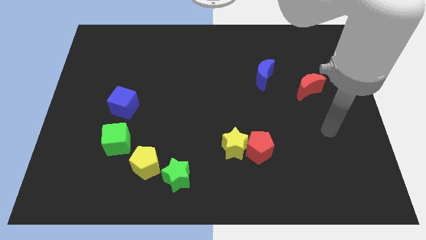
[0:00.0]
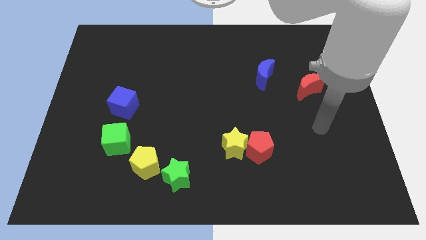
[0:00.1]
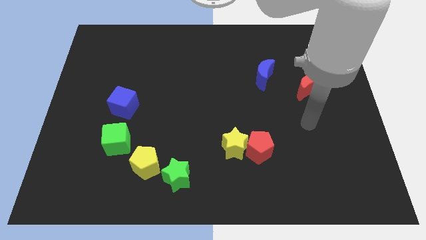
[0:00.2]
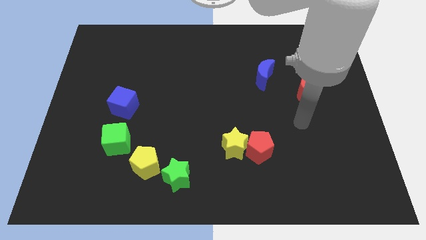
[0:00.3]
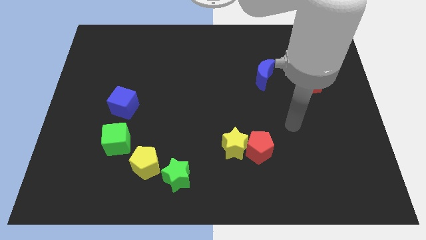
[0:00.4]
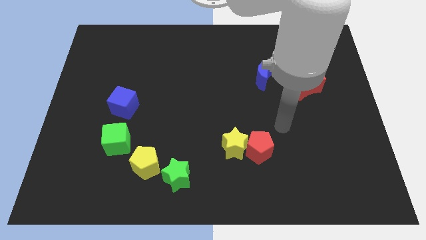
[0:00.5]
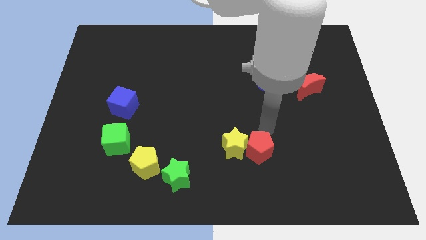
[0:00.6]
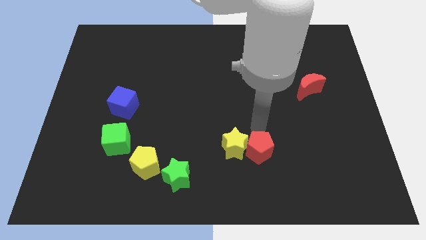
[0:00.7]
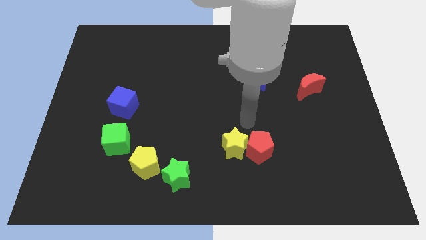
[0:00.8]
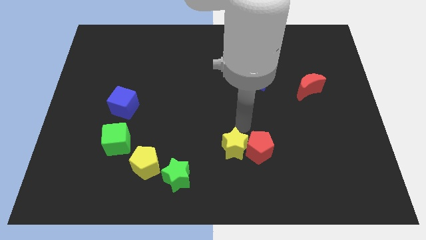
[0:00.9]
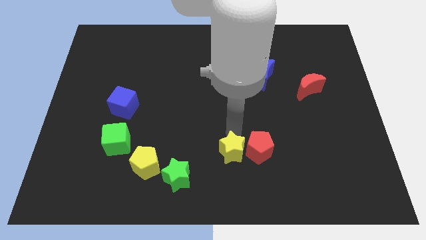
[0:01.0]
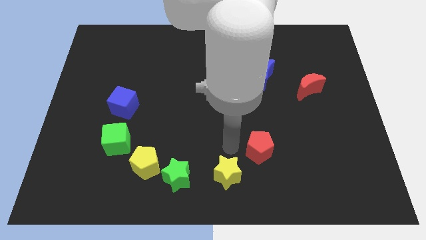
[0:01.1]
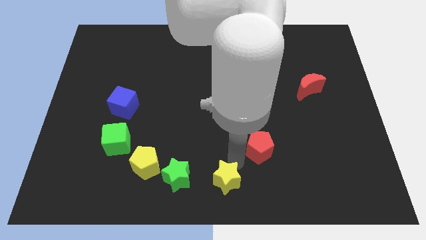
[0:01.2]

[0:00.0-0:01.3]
move the red pentagon away from the yellow star

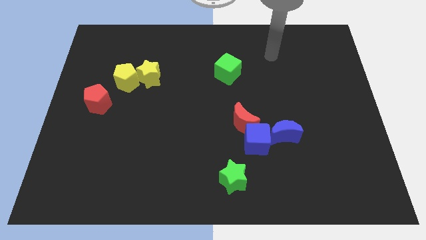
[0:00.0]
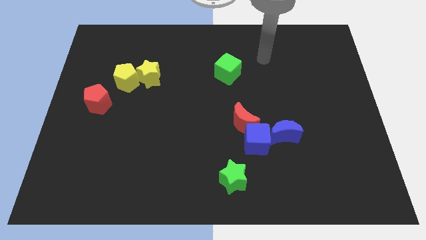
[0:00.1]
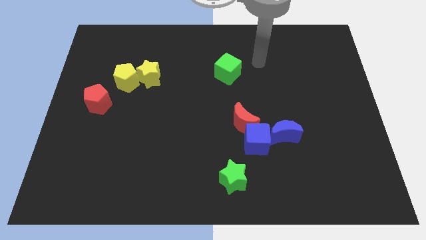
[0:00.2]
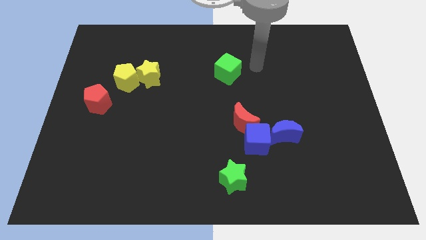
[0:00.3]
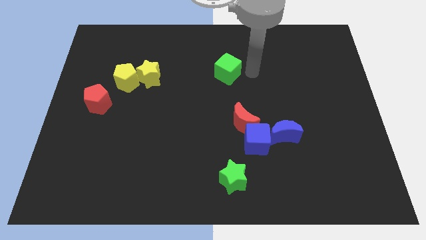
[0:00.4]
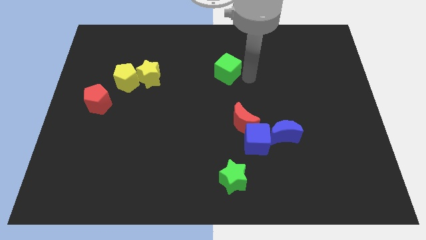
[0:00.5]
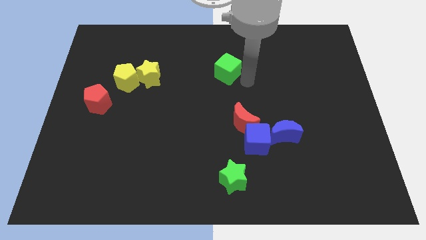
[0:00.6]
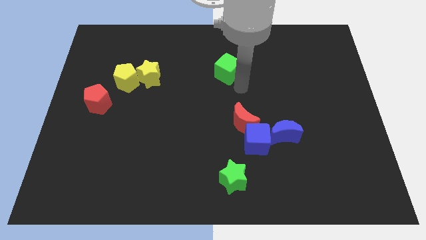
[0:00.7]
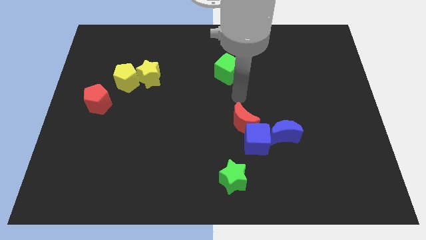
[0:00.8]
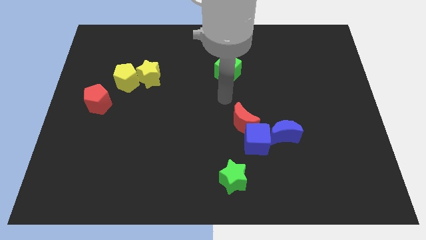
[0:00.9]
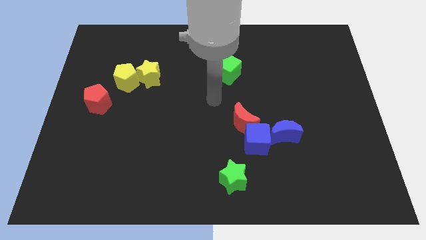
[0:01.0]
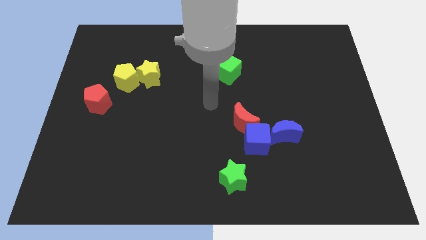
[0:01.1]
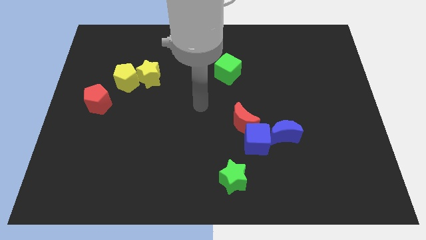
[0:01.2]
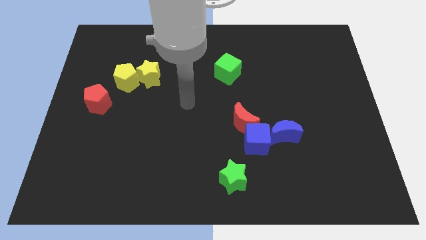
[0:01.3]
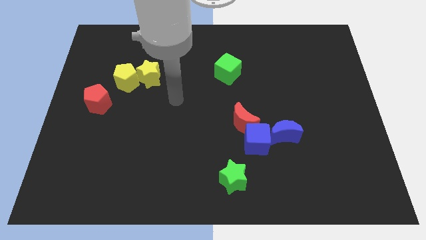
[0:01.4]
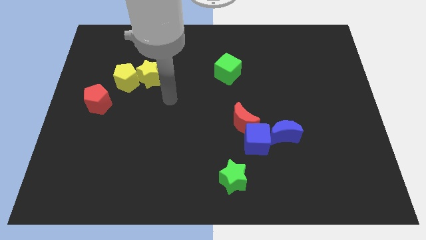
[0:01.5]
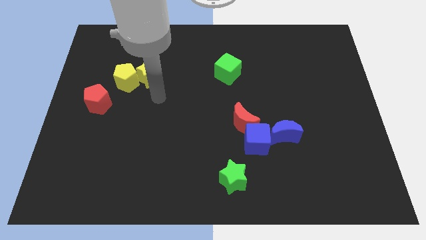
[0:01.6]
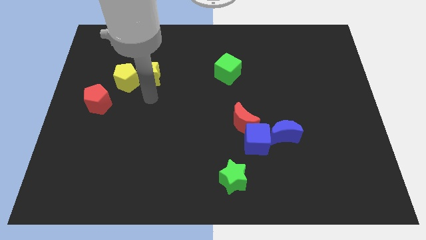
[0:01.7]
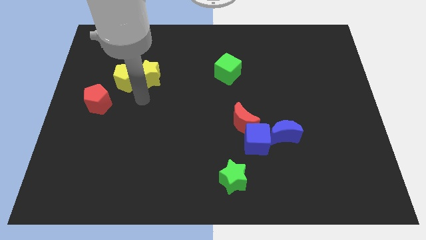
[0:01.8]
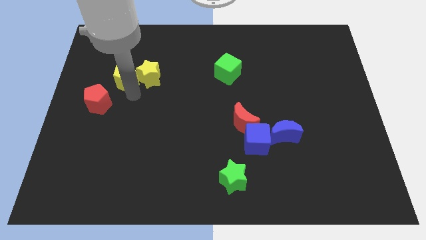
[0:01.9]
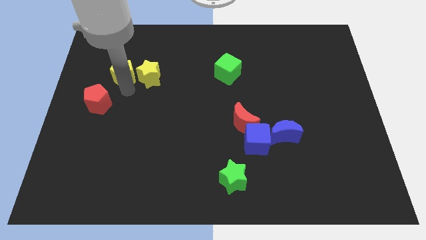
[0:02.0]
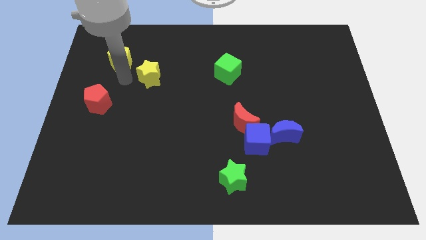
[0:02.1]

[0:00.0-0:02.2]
move the yellow star away from the yellow pentagon

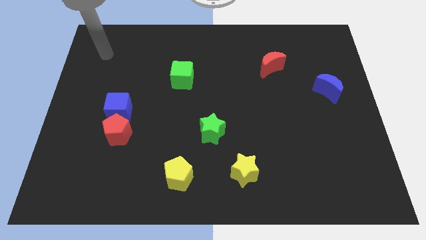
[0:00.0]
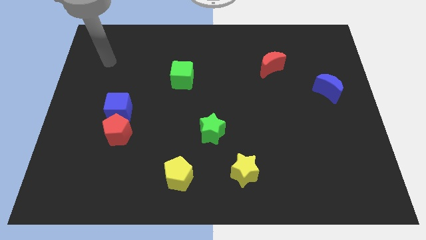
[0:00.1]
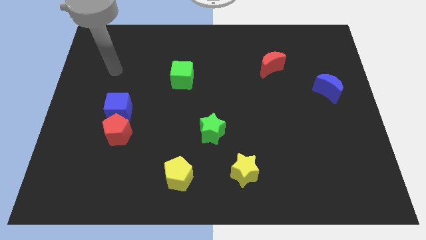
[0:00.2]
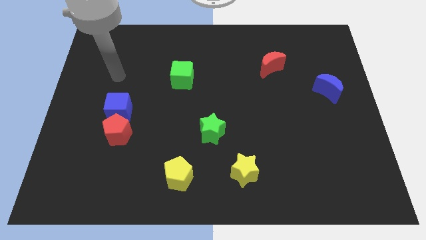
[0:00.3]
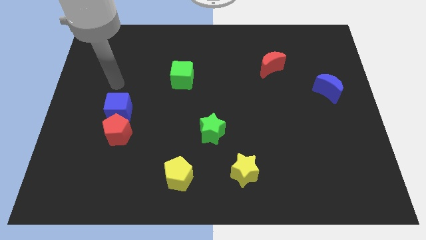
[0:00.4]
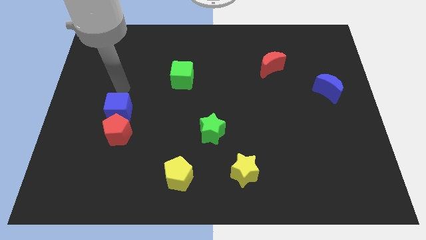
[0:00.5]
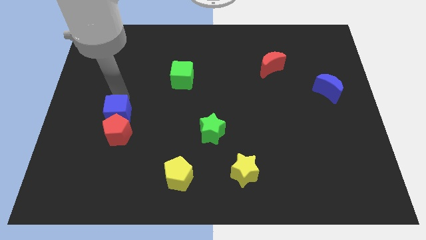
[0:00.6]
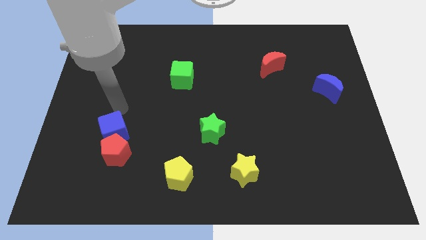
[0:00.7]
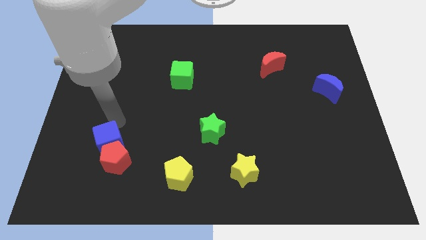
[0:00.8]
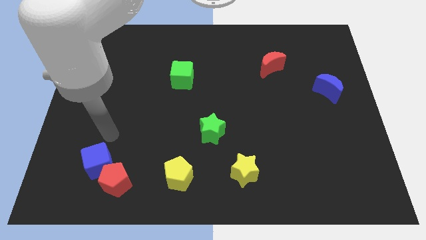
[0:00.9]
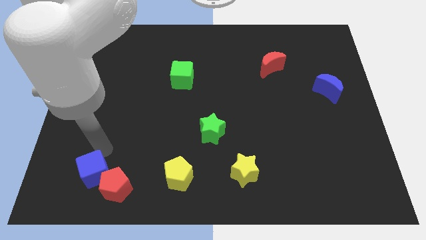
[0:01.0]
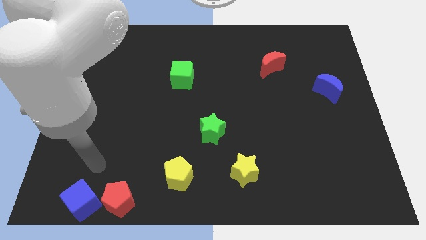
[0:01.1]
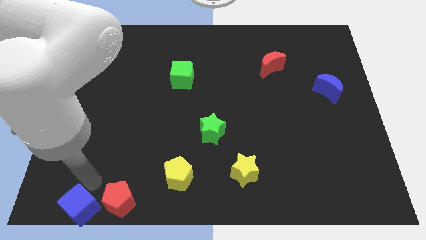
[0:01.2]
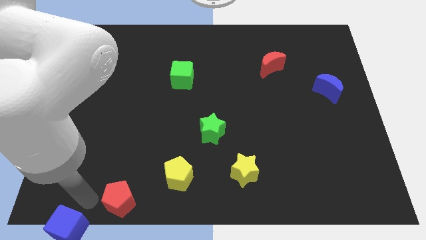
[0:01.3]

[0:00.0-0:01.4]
move the red pentagon away from the blue cube

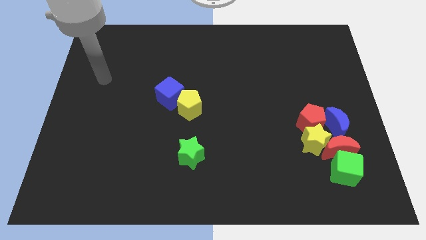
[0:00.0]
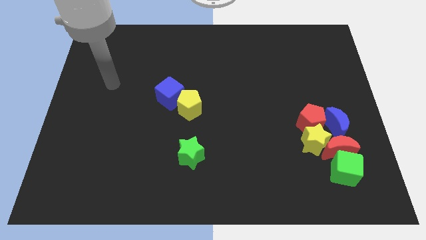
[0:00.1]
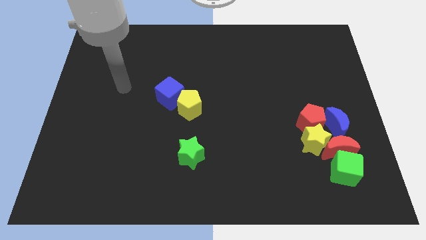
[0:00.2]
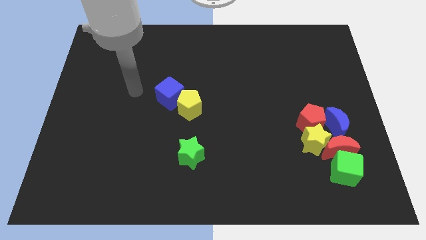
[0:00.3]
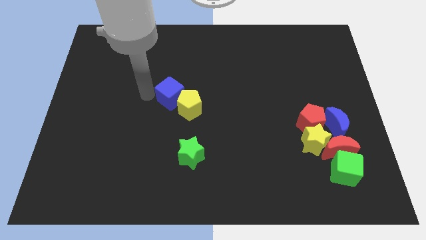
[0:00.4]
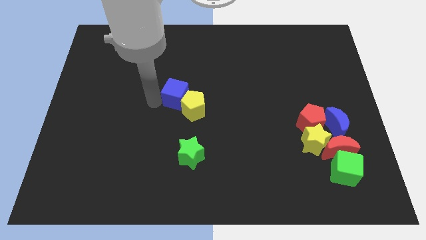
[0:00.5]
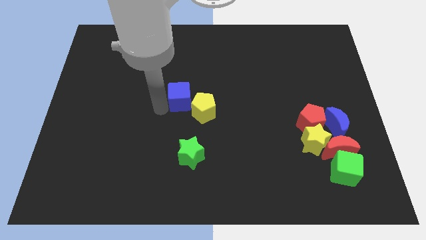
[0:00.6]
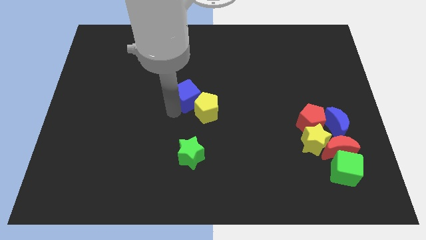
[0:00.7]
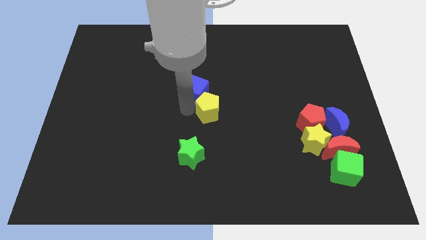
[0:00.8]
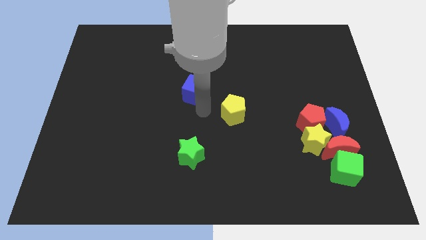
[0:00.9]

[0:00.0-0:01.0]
separate the blue cube from the yellow pentagon

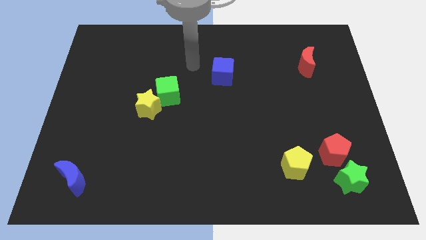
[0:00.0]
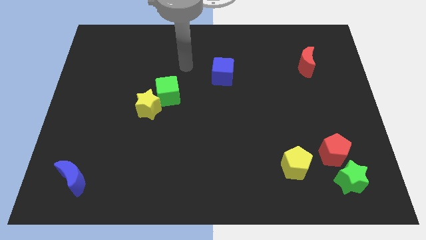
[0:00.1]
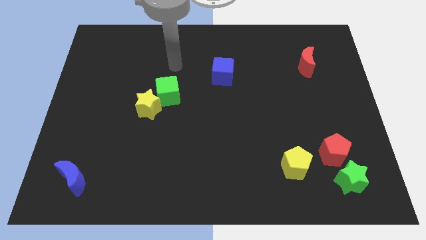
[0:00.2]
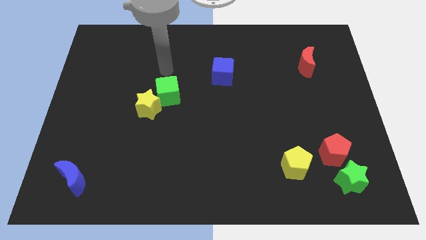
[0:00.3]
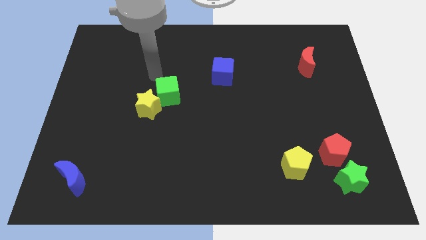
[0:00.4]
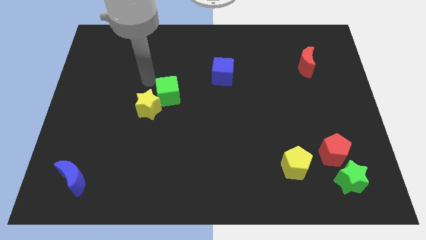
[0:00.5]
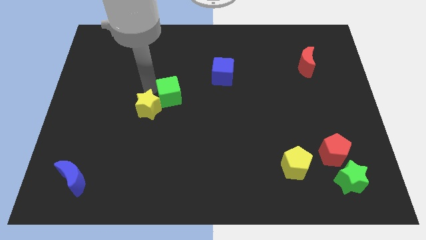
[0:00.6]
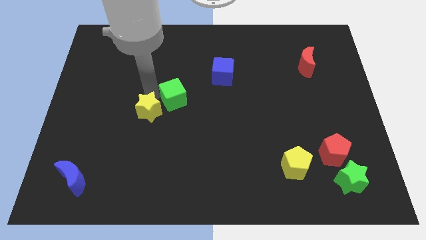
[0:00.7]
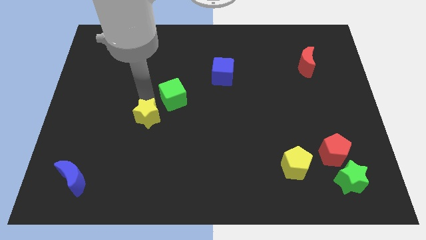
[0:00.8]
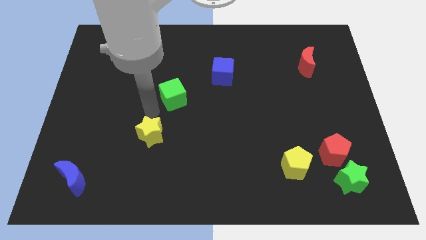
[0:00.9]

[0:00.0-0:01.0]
pull the green cube apart from the yellow star

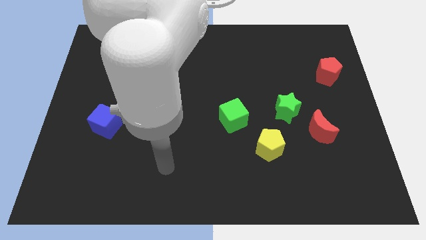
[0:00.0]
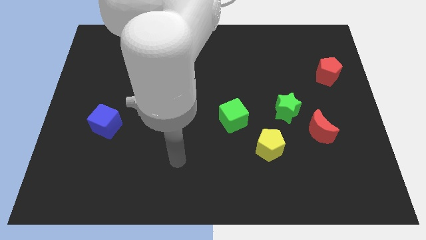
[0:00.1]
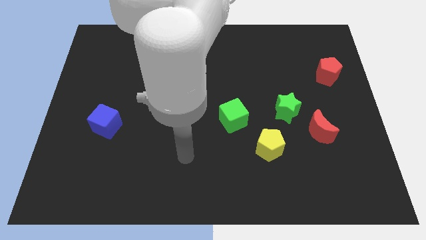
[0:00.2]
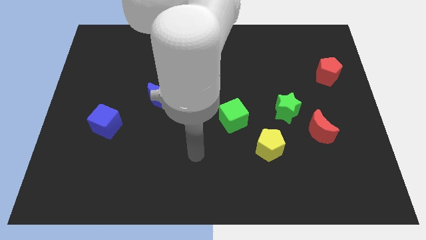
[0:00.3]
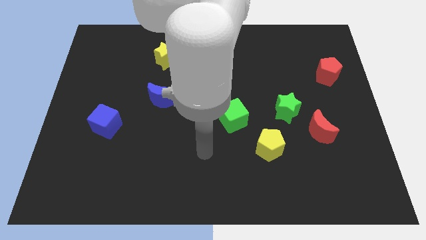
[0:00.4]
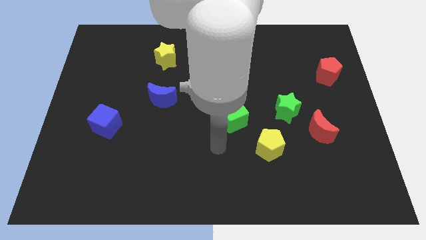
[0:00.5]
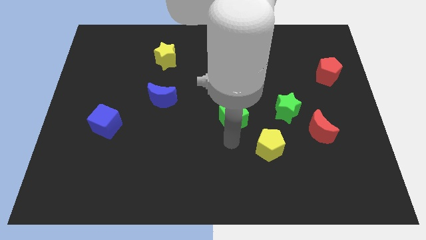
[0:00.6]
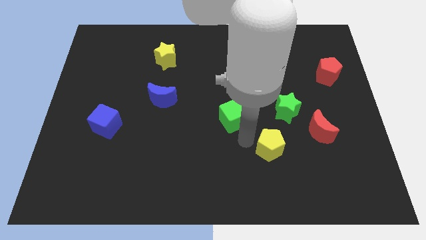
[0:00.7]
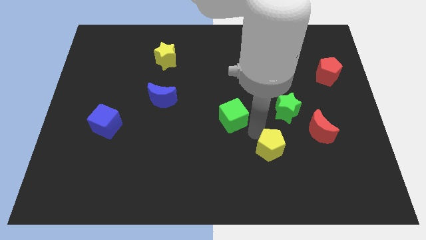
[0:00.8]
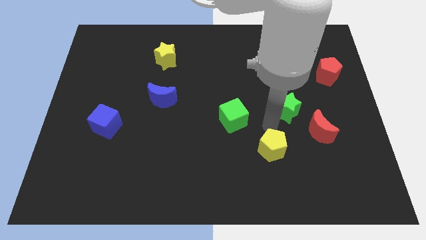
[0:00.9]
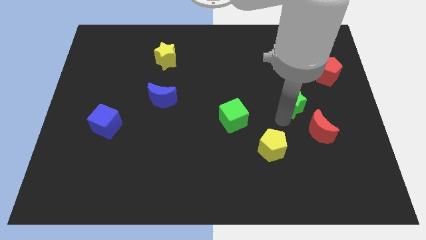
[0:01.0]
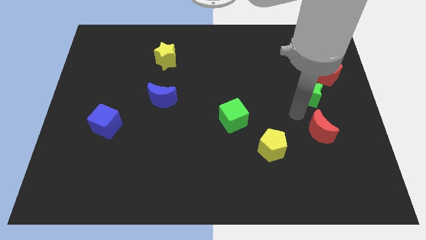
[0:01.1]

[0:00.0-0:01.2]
move the red moon away from the green star

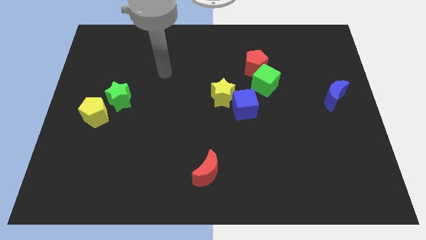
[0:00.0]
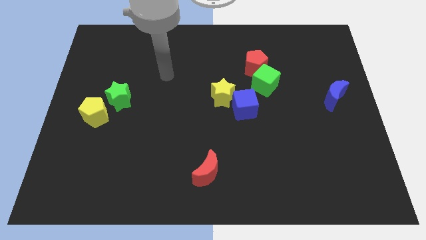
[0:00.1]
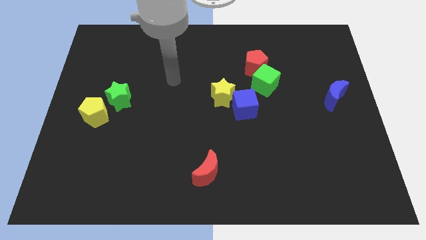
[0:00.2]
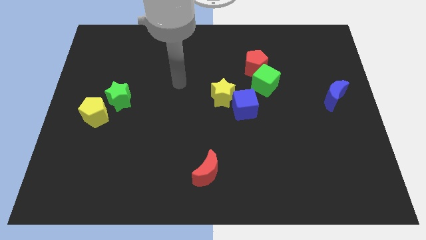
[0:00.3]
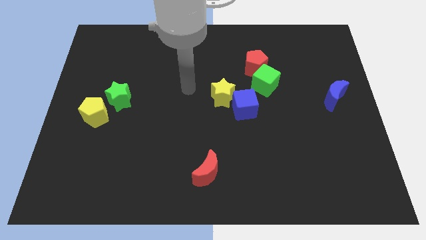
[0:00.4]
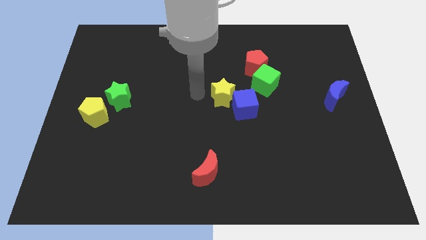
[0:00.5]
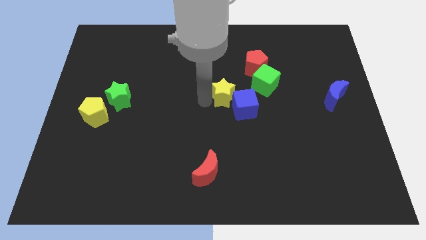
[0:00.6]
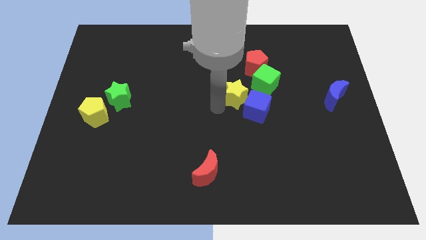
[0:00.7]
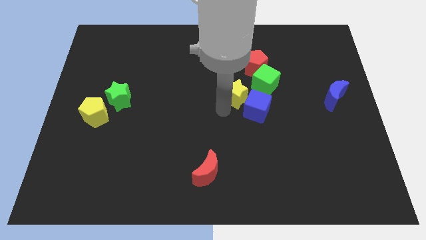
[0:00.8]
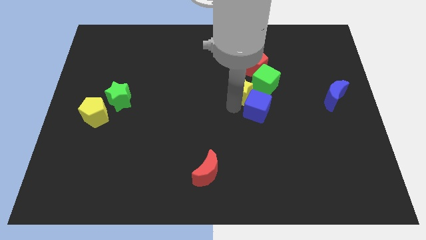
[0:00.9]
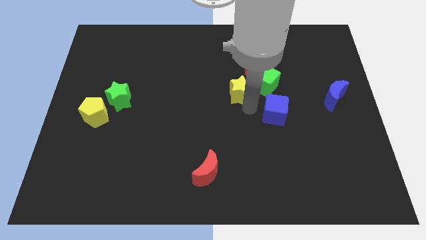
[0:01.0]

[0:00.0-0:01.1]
move the yellow star away from the blue cube
